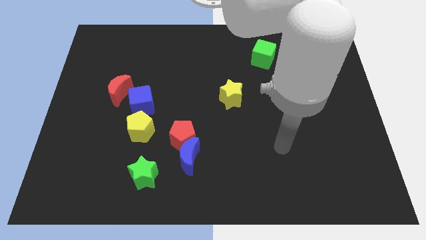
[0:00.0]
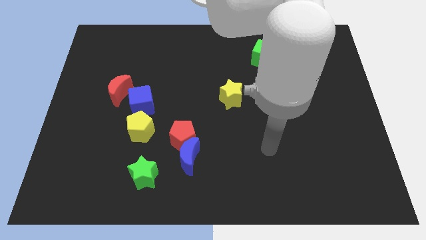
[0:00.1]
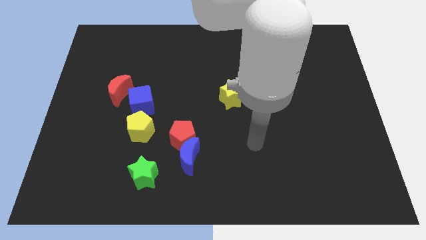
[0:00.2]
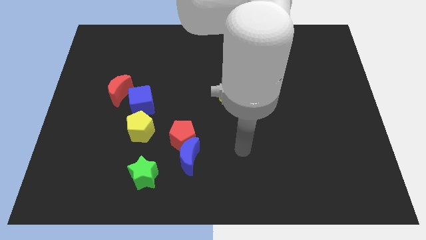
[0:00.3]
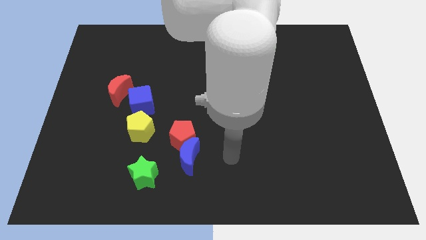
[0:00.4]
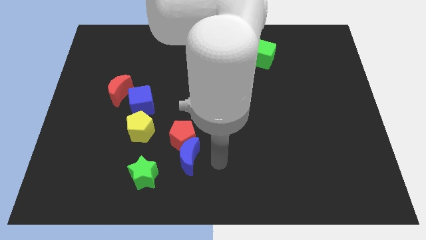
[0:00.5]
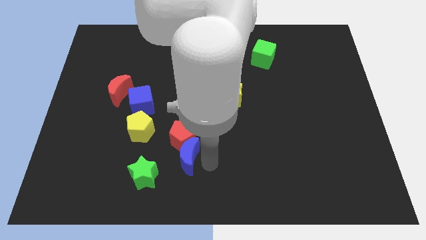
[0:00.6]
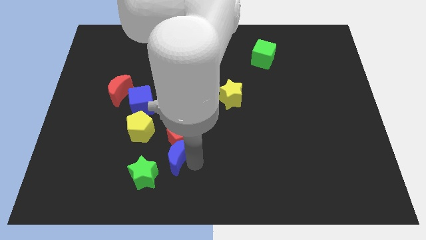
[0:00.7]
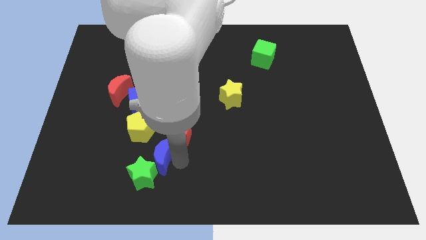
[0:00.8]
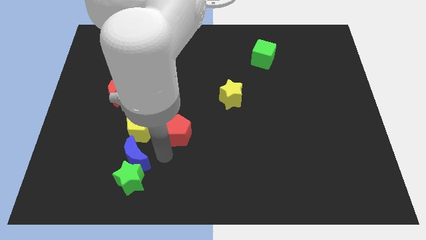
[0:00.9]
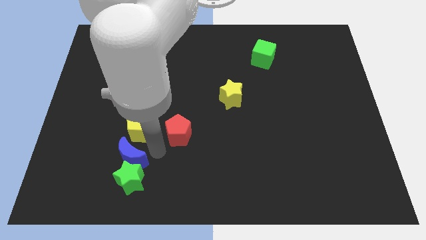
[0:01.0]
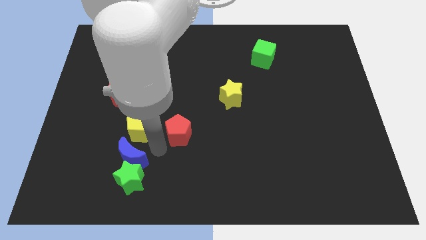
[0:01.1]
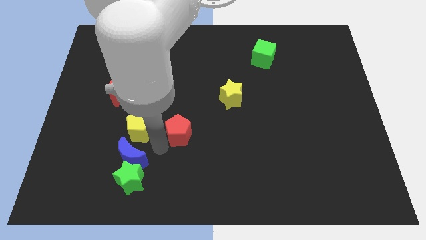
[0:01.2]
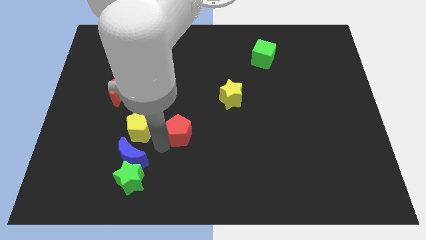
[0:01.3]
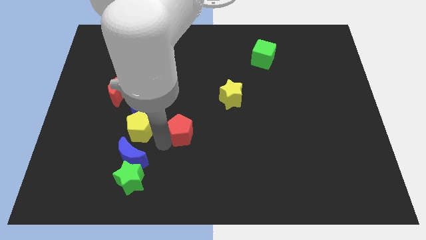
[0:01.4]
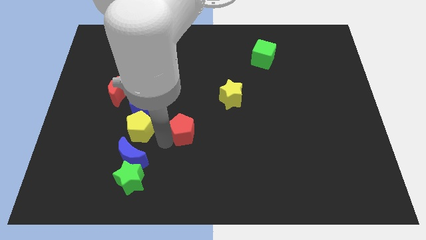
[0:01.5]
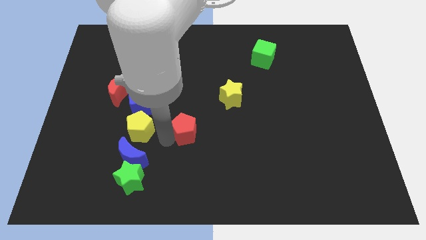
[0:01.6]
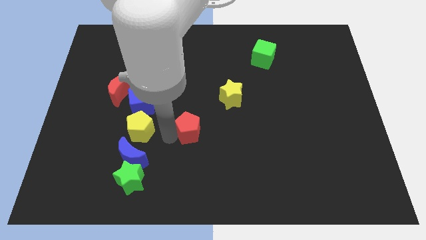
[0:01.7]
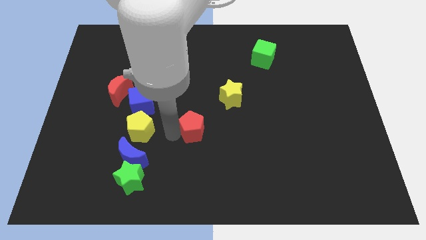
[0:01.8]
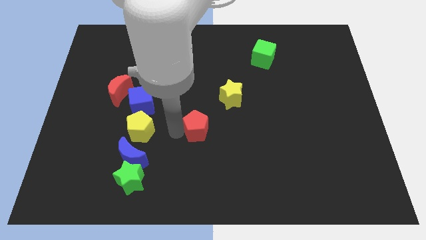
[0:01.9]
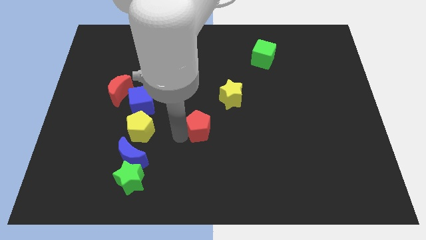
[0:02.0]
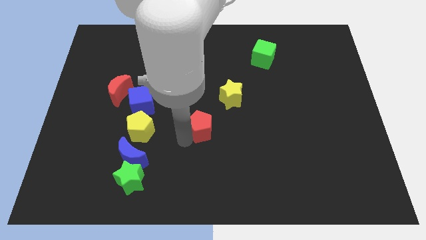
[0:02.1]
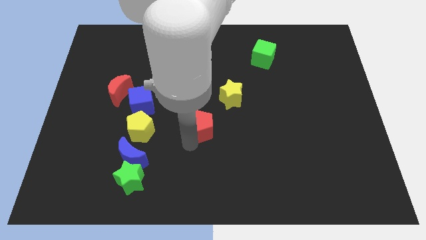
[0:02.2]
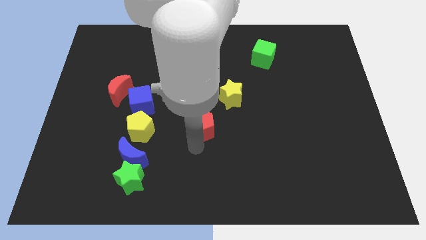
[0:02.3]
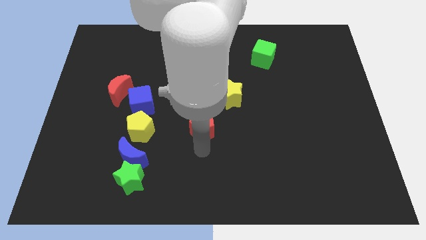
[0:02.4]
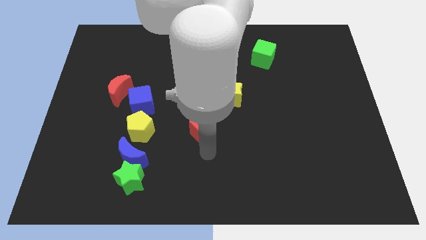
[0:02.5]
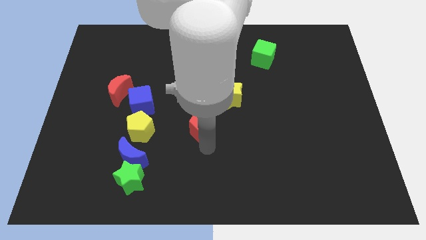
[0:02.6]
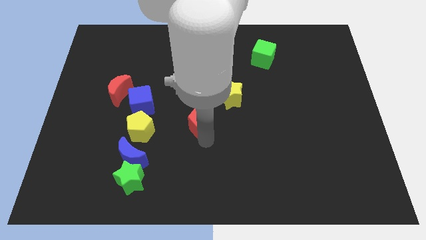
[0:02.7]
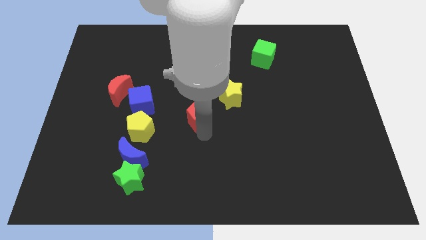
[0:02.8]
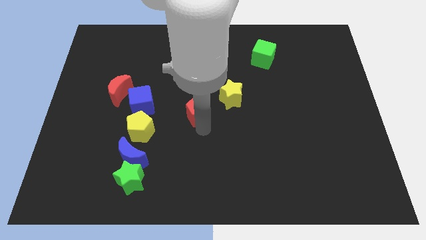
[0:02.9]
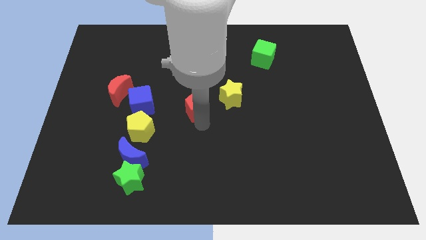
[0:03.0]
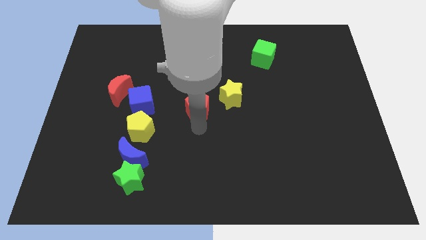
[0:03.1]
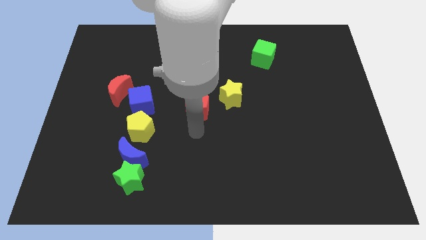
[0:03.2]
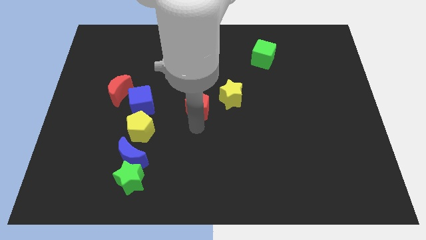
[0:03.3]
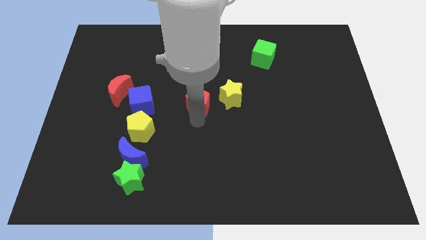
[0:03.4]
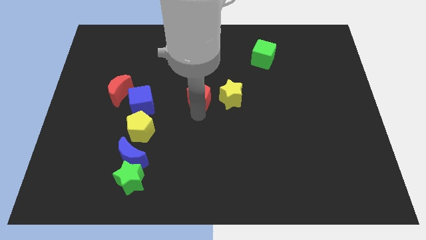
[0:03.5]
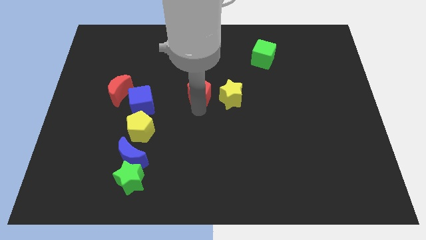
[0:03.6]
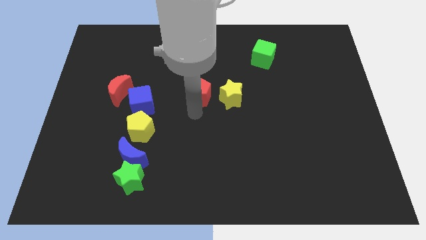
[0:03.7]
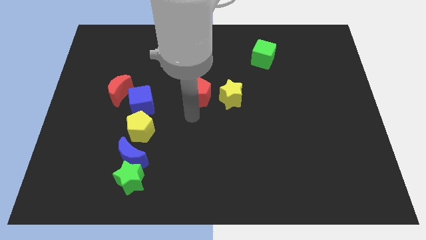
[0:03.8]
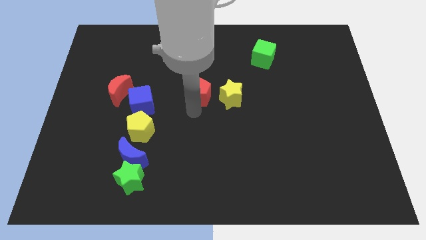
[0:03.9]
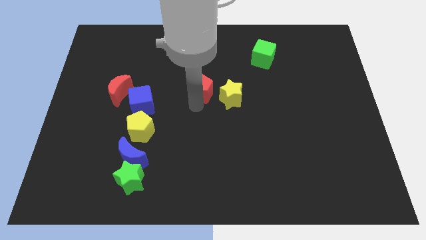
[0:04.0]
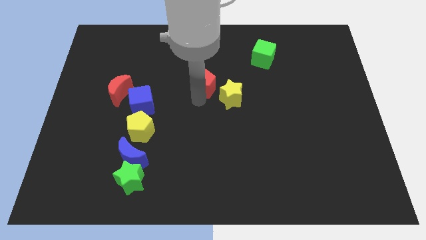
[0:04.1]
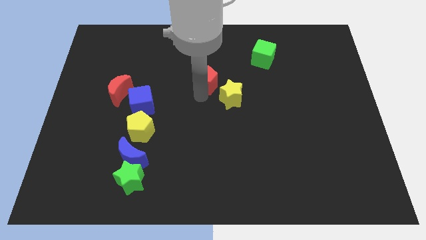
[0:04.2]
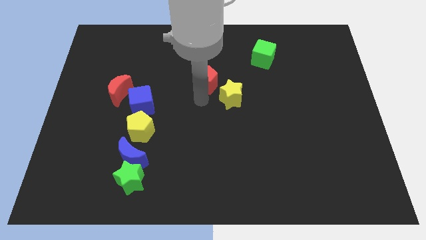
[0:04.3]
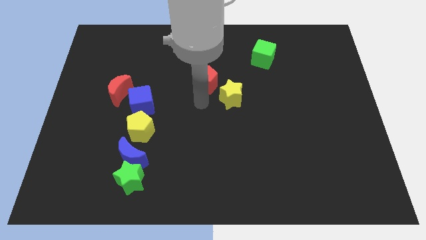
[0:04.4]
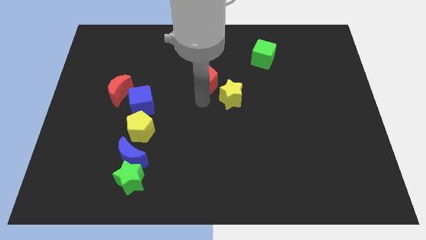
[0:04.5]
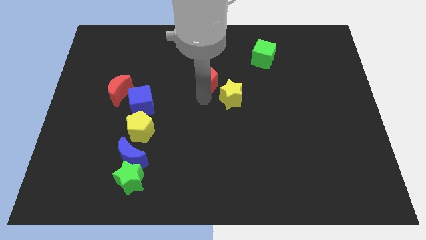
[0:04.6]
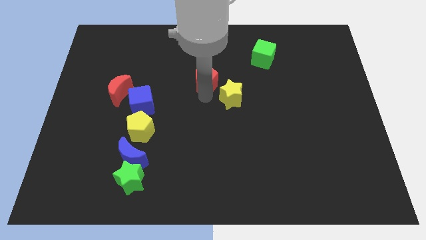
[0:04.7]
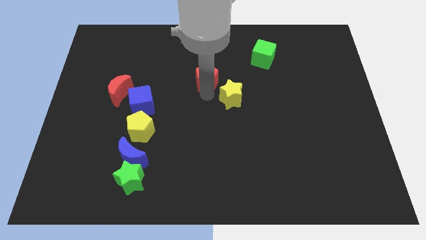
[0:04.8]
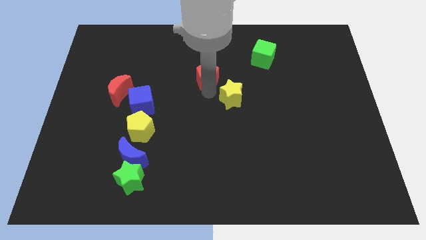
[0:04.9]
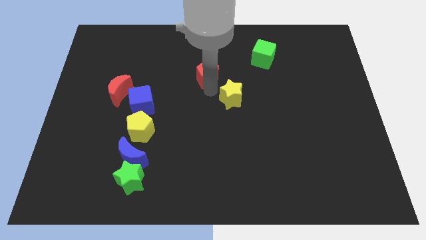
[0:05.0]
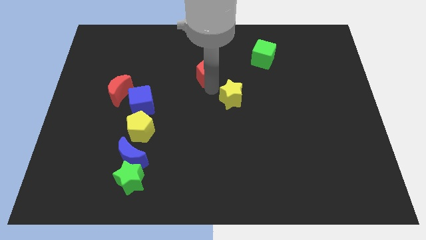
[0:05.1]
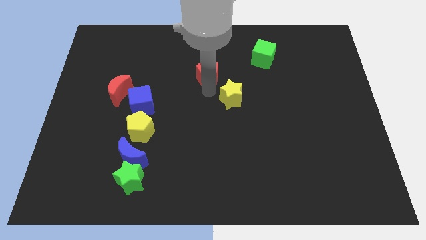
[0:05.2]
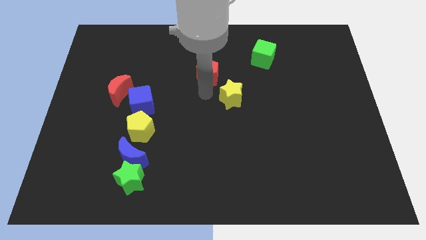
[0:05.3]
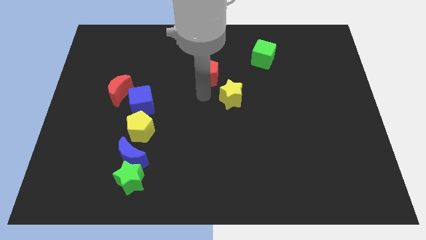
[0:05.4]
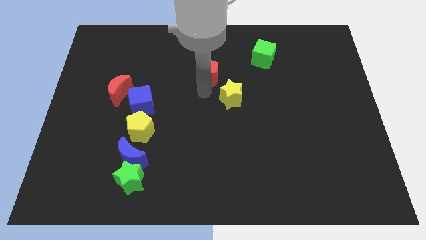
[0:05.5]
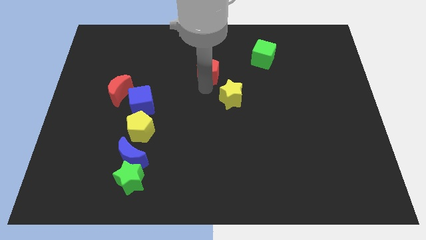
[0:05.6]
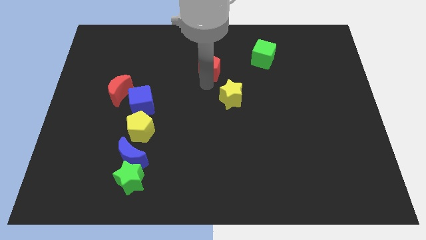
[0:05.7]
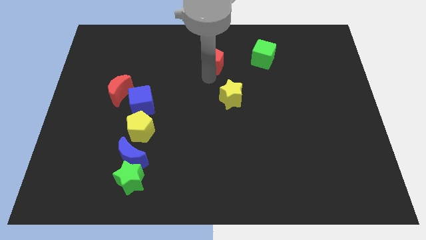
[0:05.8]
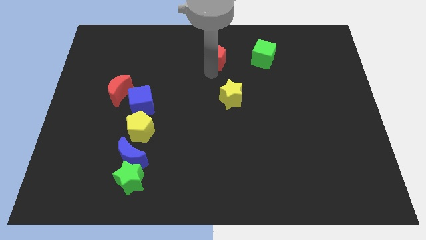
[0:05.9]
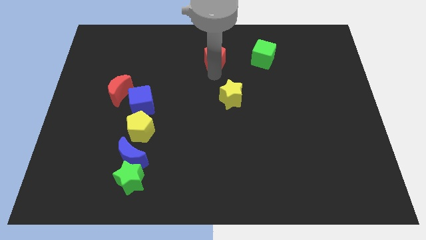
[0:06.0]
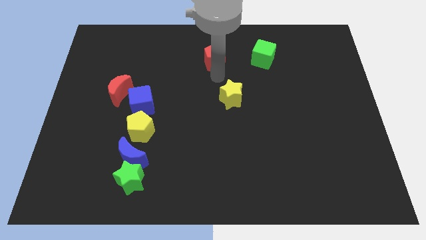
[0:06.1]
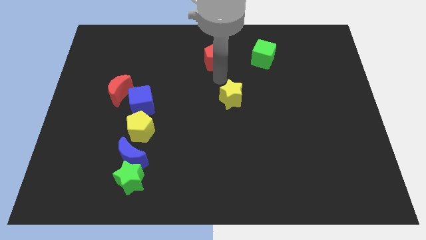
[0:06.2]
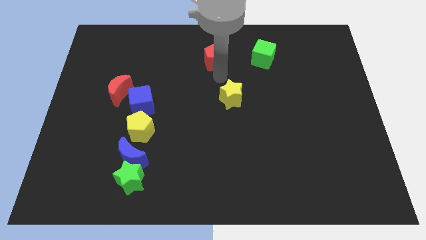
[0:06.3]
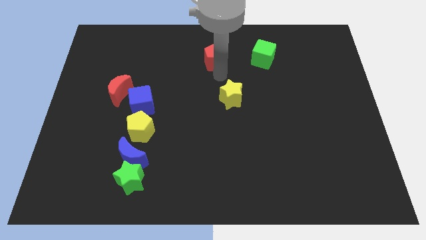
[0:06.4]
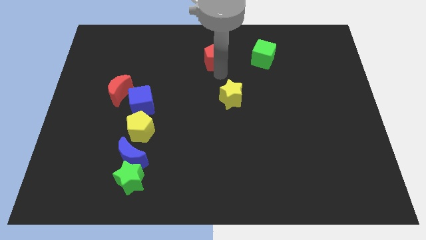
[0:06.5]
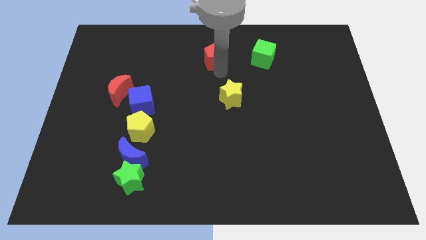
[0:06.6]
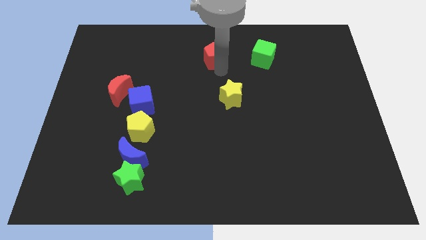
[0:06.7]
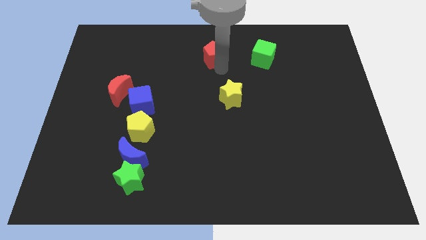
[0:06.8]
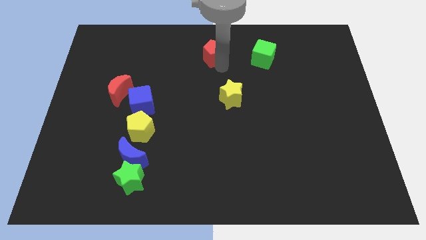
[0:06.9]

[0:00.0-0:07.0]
slide the red pentagon to the top
